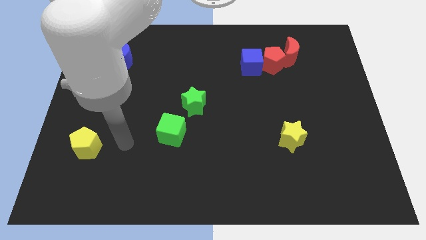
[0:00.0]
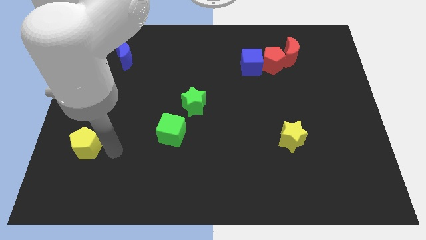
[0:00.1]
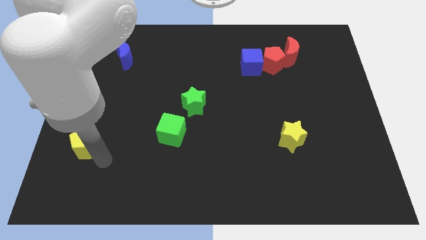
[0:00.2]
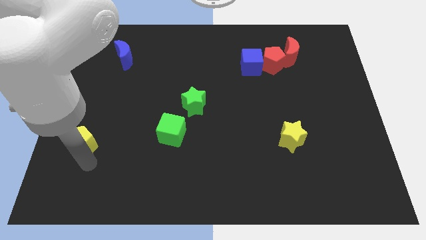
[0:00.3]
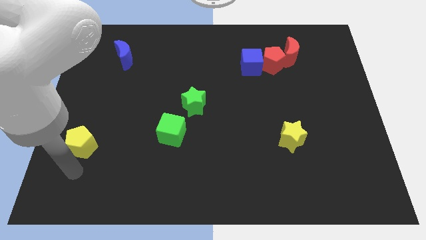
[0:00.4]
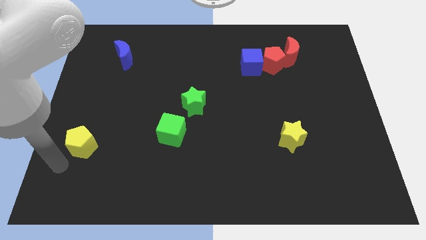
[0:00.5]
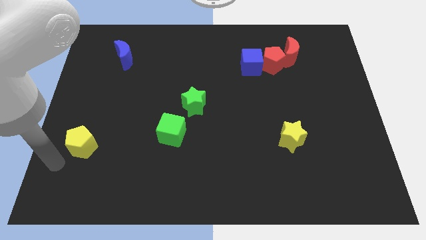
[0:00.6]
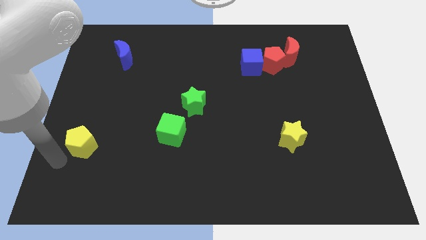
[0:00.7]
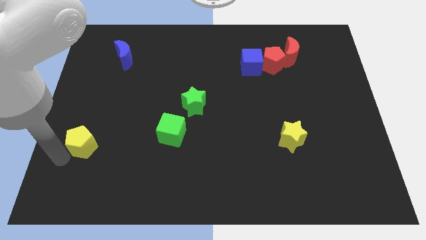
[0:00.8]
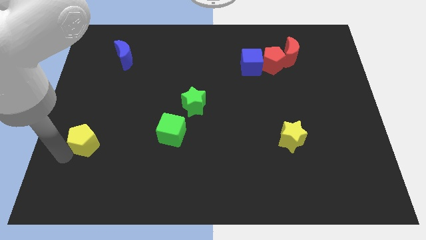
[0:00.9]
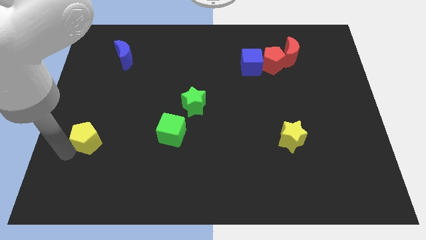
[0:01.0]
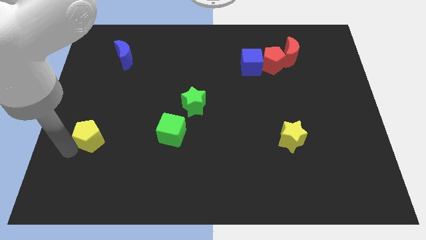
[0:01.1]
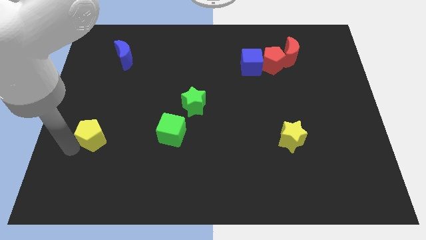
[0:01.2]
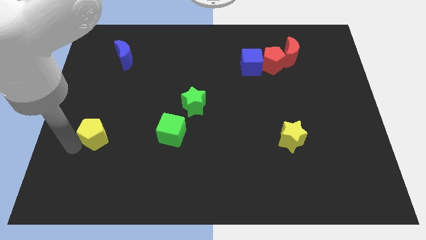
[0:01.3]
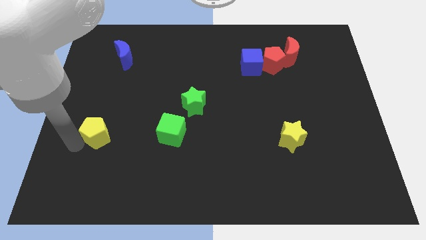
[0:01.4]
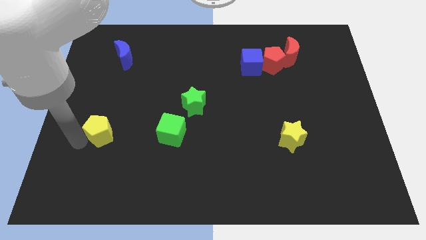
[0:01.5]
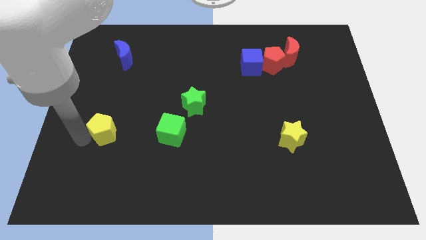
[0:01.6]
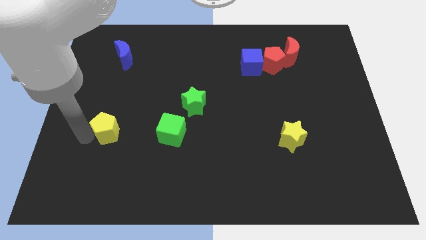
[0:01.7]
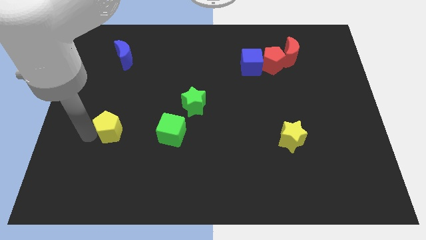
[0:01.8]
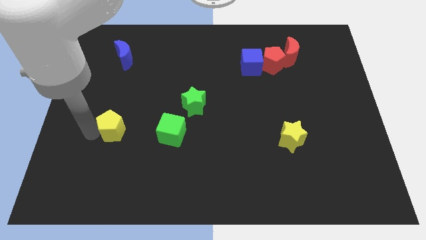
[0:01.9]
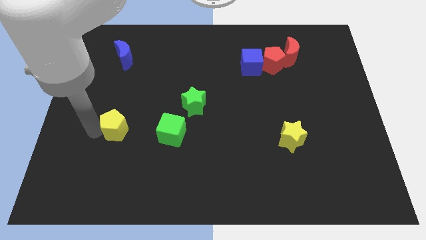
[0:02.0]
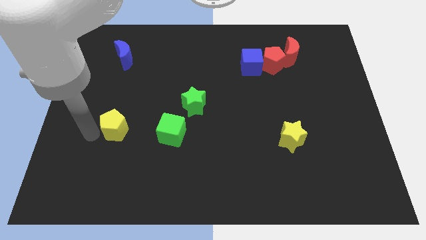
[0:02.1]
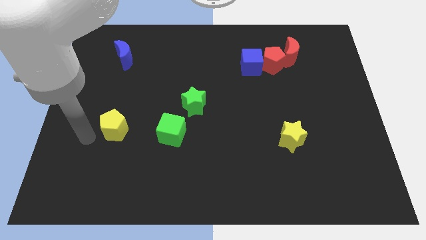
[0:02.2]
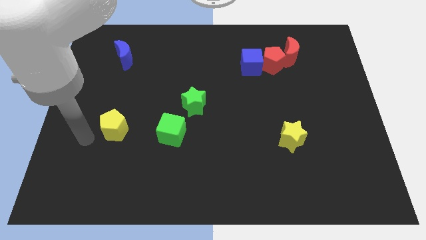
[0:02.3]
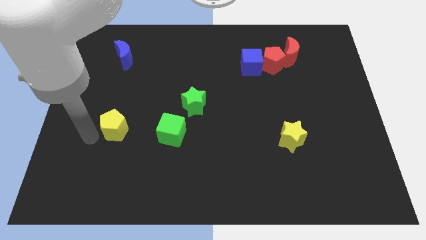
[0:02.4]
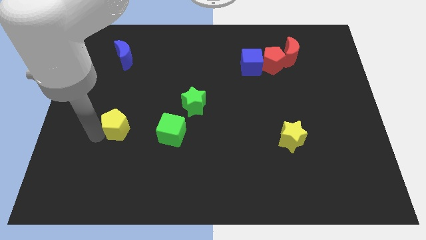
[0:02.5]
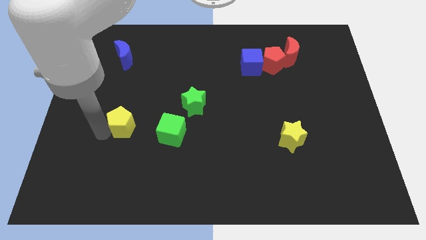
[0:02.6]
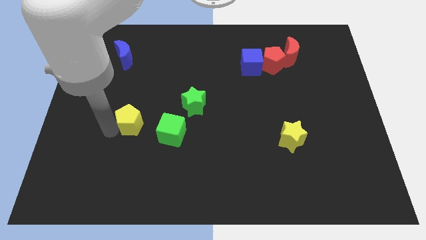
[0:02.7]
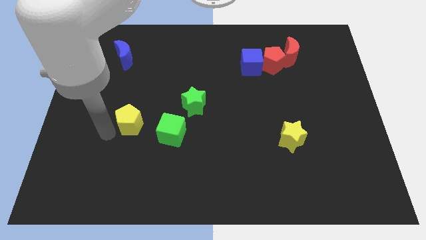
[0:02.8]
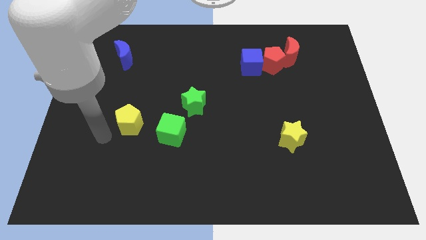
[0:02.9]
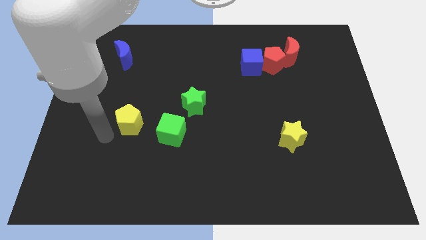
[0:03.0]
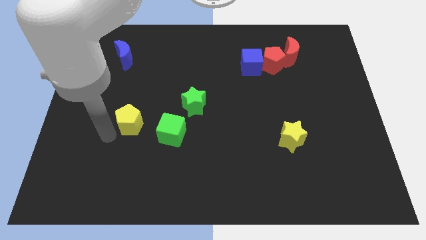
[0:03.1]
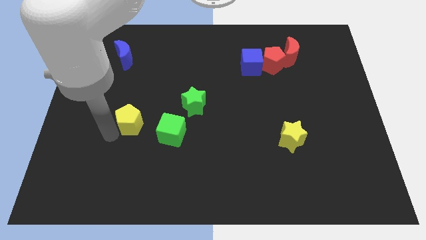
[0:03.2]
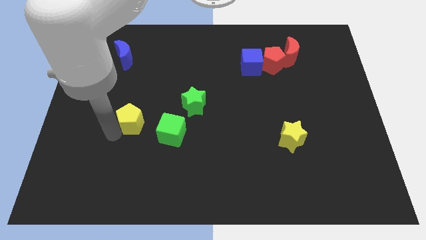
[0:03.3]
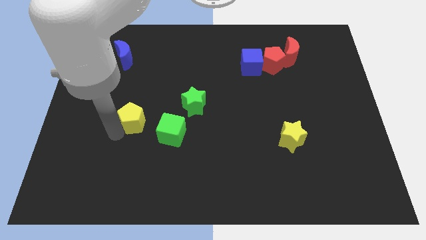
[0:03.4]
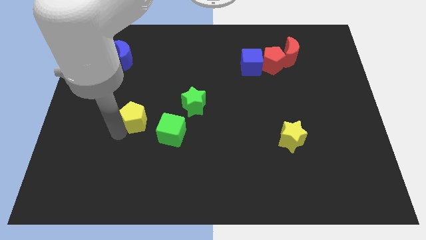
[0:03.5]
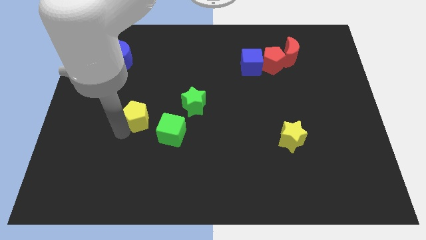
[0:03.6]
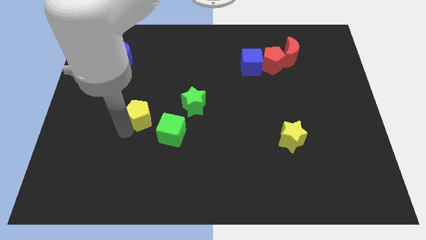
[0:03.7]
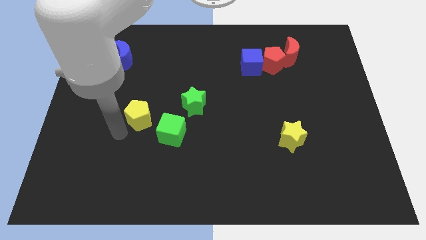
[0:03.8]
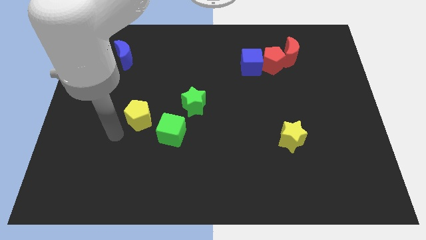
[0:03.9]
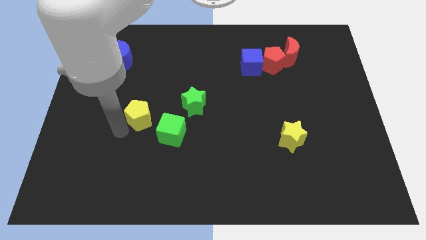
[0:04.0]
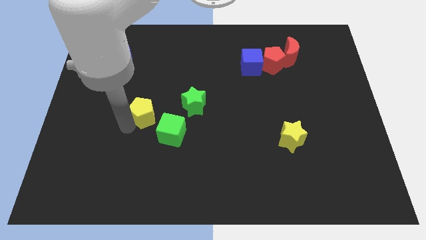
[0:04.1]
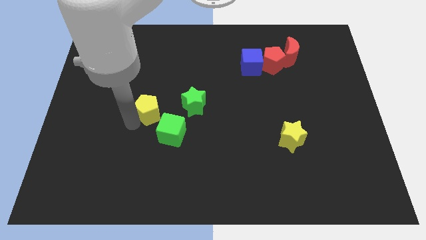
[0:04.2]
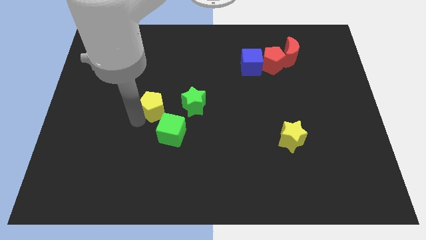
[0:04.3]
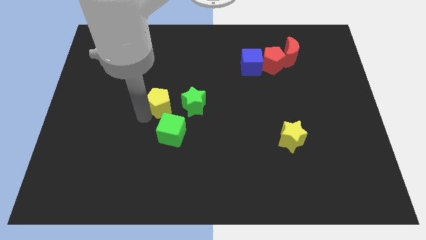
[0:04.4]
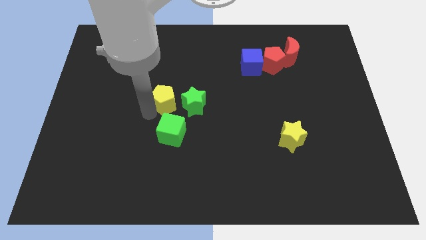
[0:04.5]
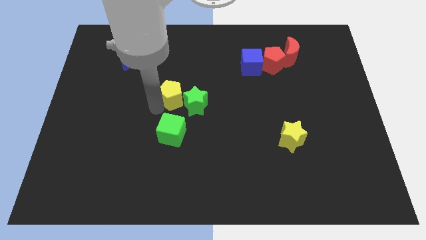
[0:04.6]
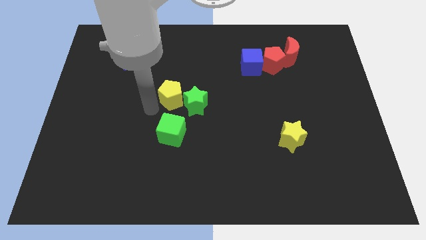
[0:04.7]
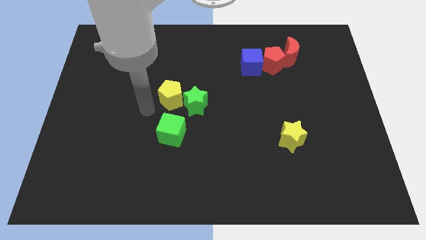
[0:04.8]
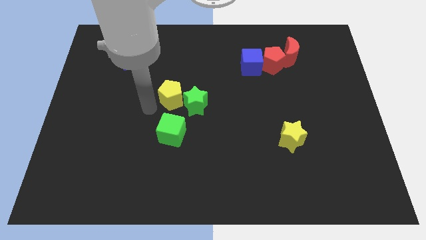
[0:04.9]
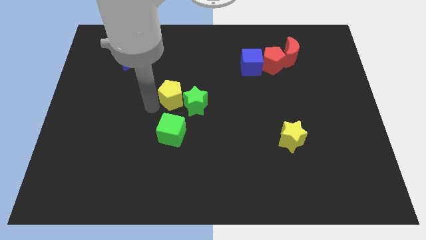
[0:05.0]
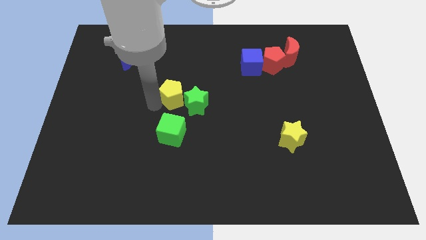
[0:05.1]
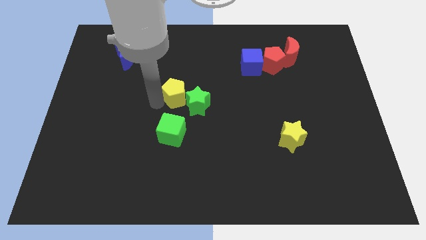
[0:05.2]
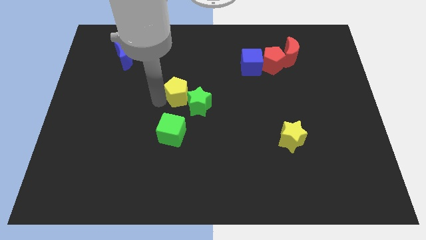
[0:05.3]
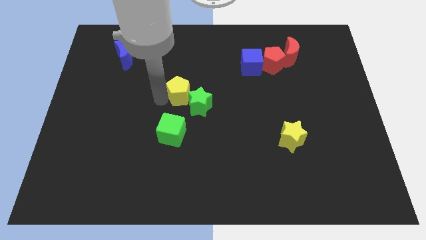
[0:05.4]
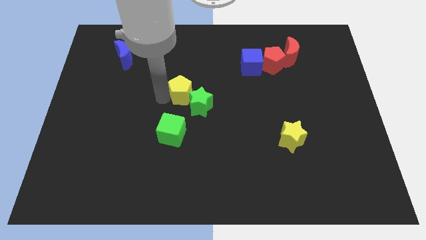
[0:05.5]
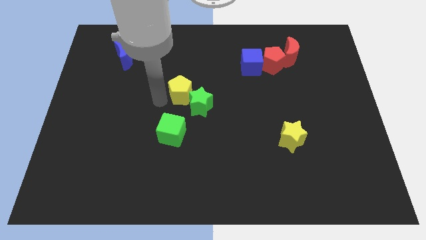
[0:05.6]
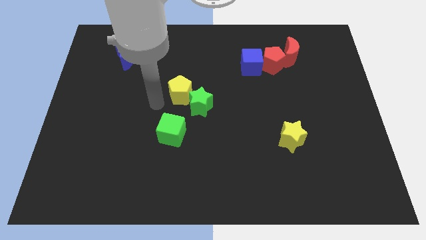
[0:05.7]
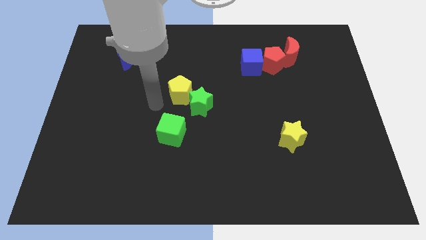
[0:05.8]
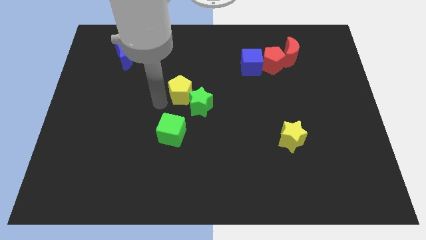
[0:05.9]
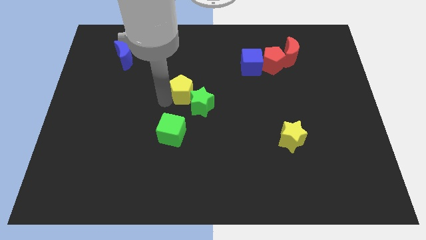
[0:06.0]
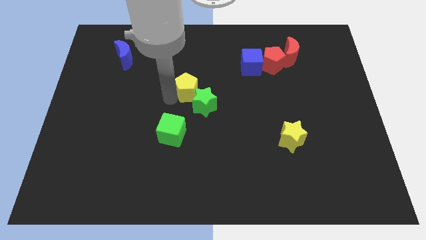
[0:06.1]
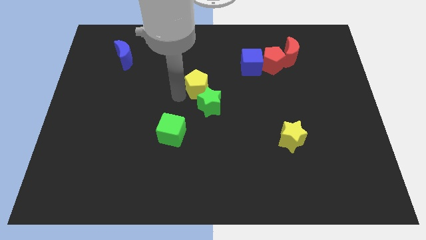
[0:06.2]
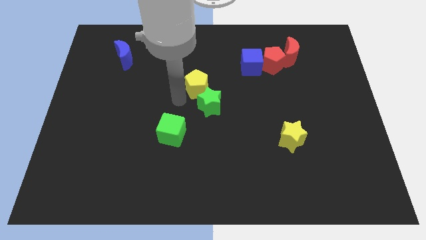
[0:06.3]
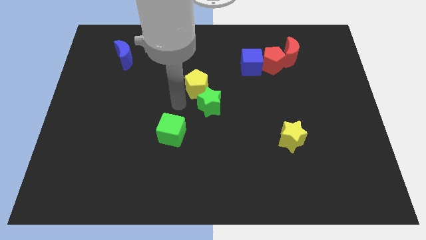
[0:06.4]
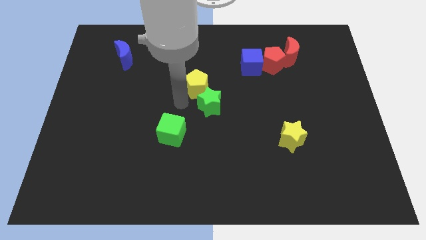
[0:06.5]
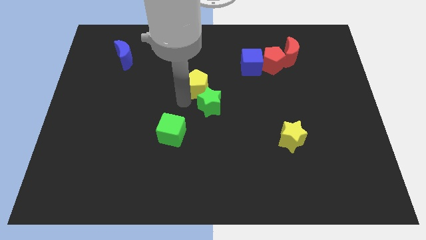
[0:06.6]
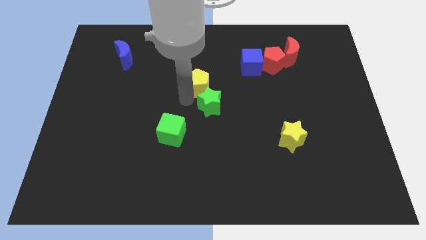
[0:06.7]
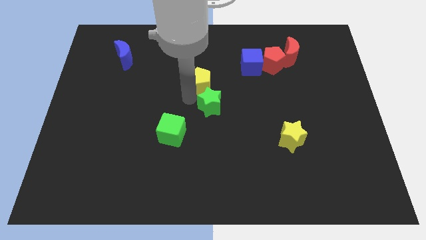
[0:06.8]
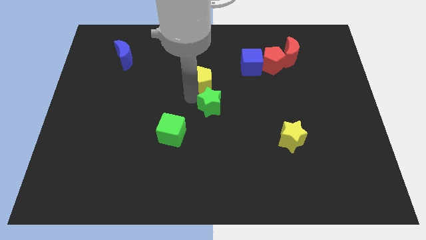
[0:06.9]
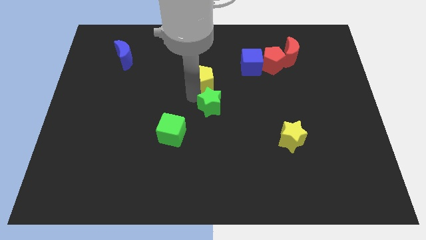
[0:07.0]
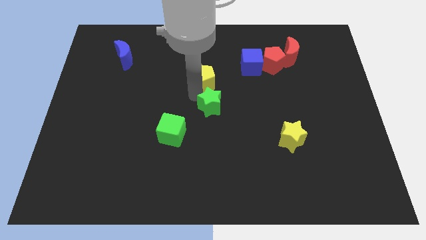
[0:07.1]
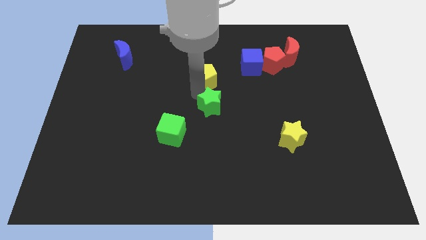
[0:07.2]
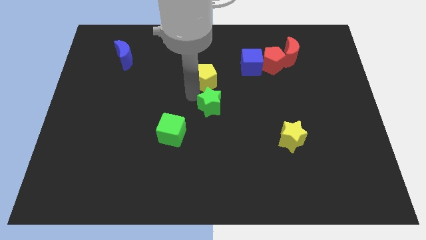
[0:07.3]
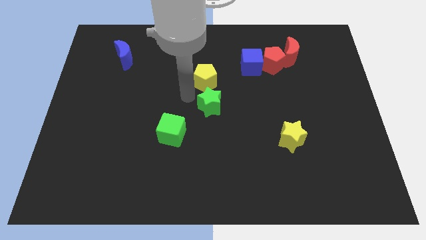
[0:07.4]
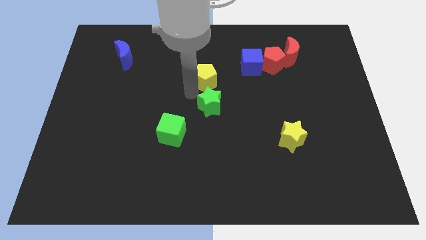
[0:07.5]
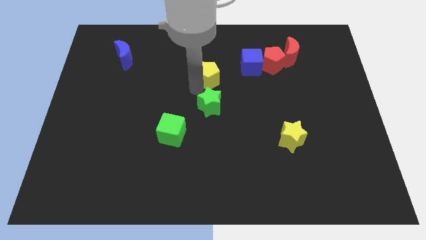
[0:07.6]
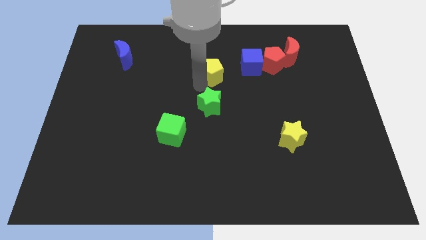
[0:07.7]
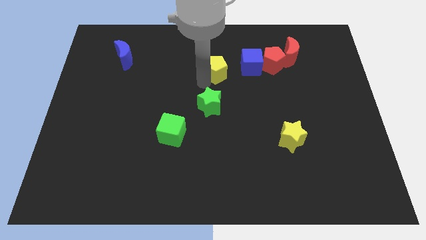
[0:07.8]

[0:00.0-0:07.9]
move the yellow pentagon to the left of the red pentagon

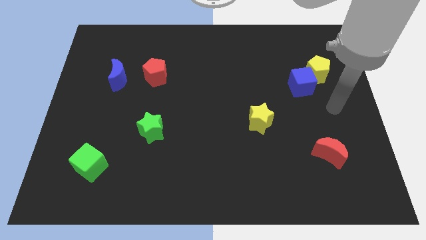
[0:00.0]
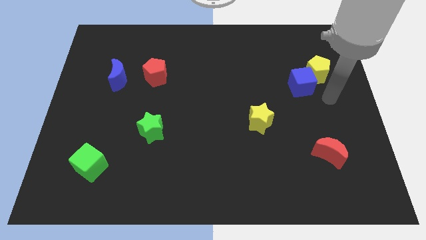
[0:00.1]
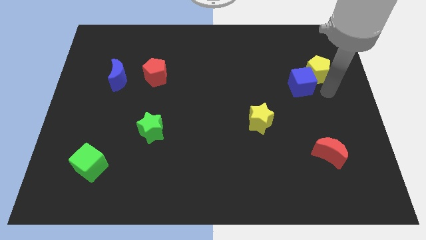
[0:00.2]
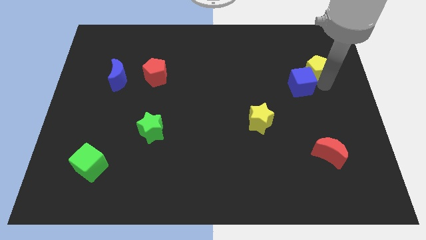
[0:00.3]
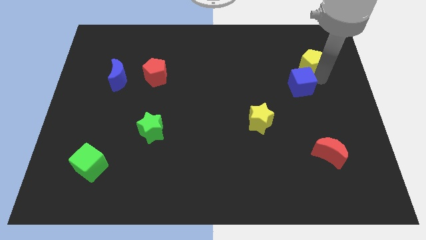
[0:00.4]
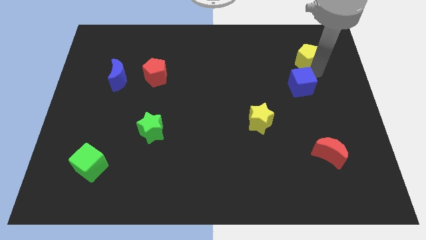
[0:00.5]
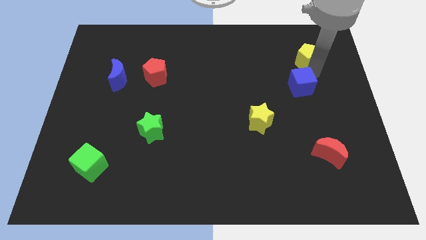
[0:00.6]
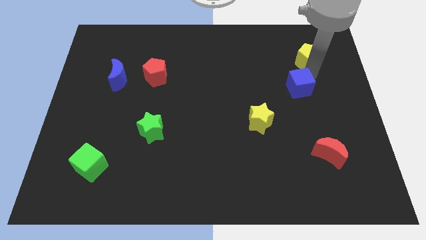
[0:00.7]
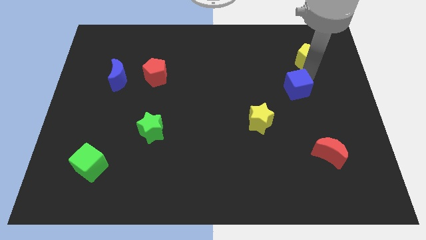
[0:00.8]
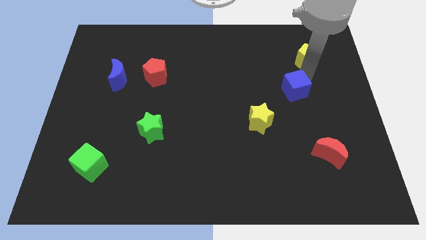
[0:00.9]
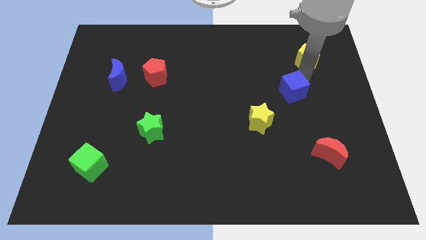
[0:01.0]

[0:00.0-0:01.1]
slide the blue cube to the top right side of the yellow star
